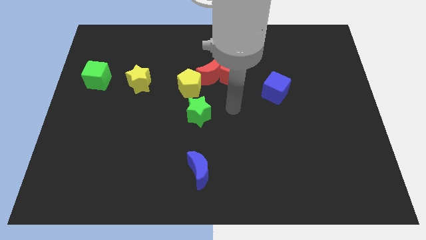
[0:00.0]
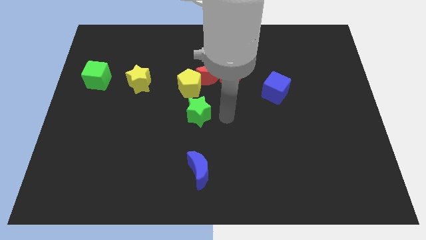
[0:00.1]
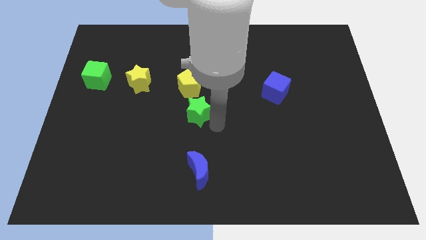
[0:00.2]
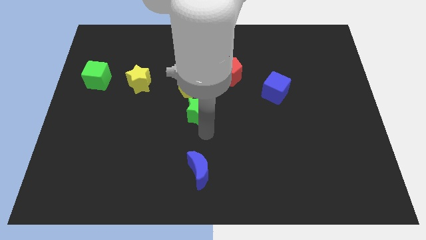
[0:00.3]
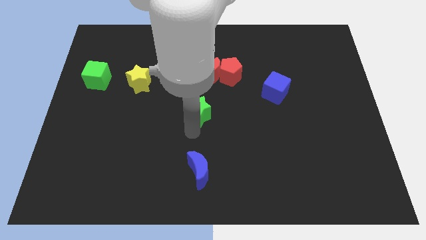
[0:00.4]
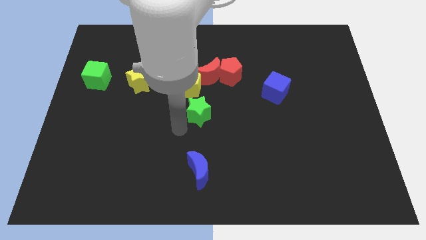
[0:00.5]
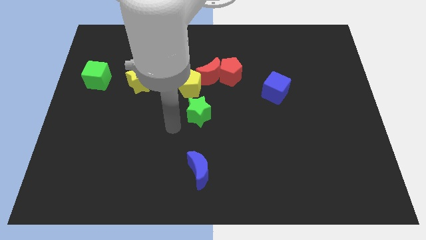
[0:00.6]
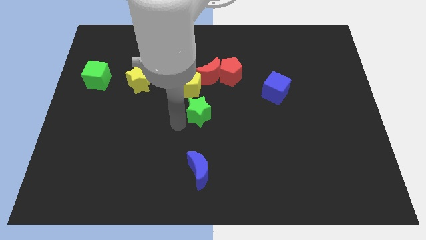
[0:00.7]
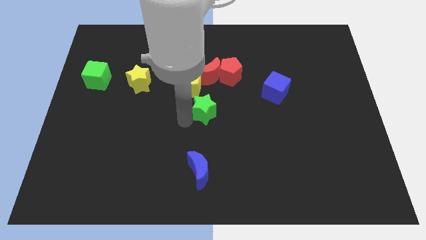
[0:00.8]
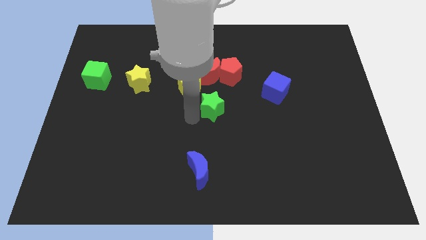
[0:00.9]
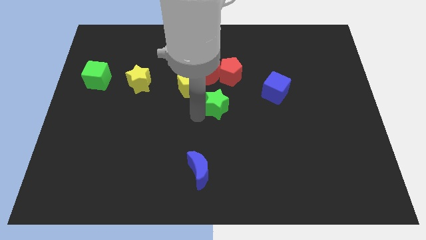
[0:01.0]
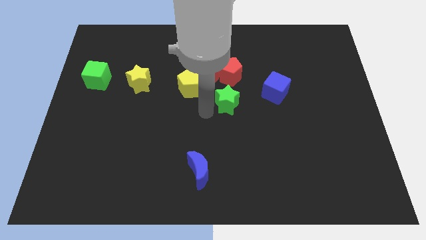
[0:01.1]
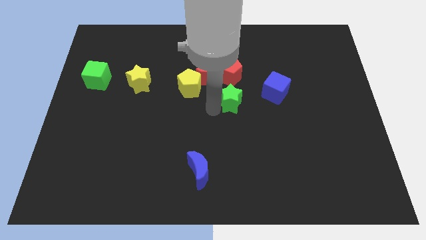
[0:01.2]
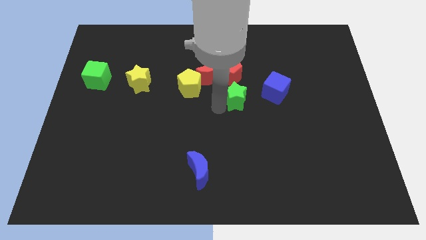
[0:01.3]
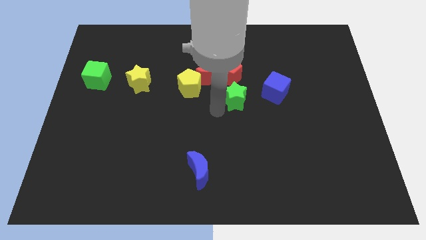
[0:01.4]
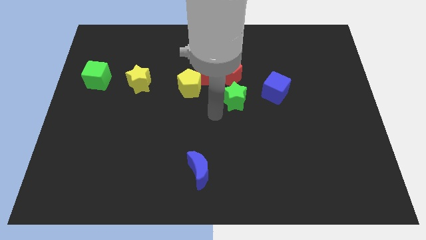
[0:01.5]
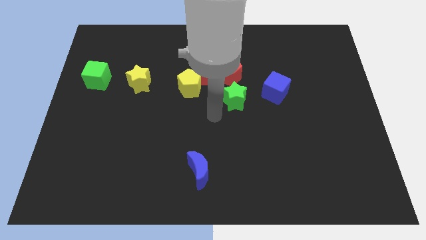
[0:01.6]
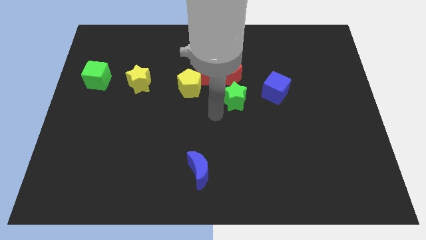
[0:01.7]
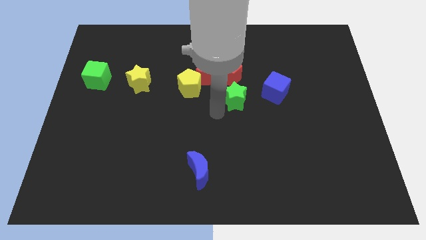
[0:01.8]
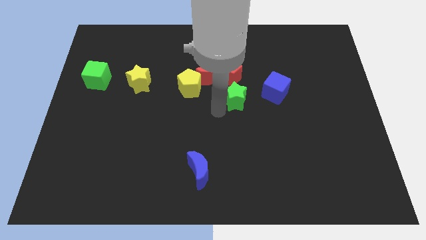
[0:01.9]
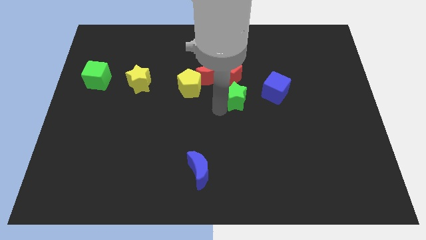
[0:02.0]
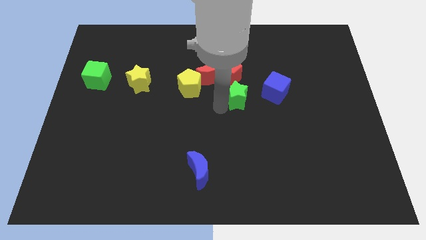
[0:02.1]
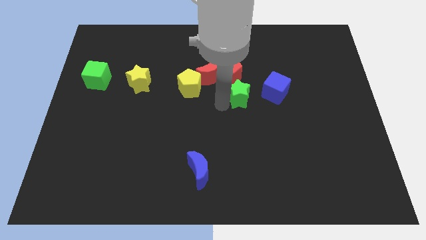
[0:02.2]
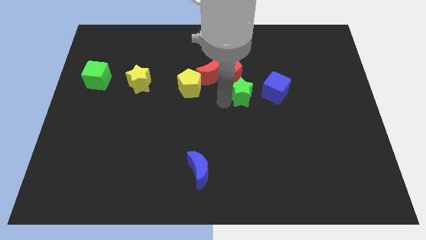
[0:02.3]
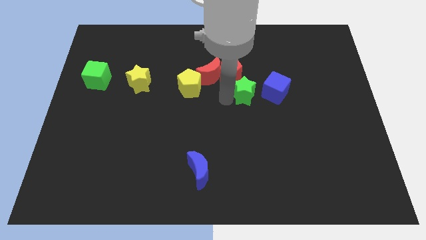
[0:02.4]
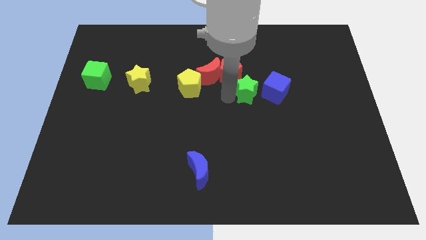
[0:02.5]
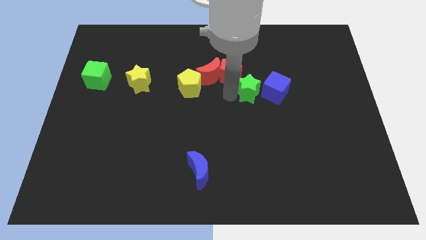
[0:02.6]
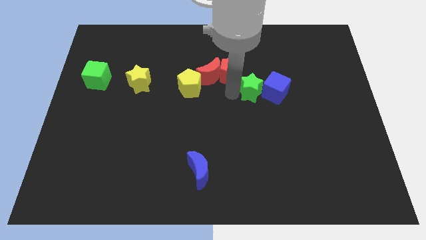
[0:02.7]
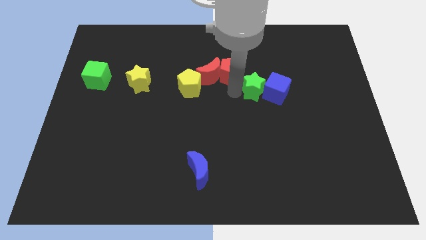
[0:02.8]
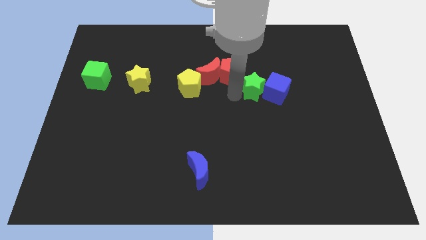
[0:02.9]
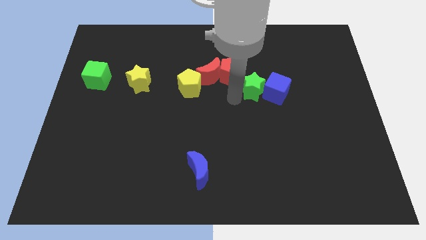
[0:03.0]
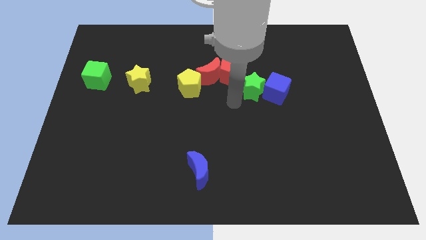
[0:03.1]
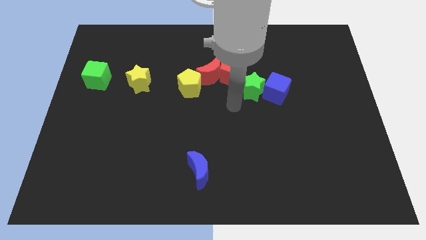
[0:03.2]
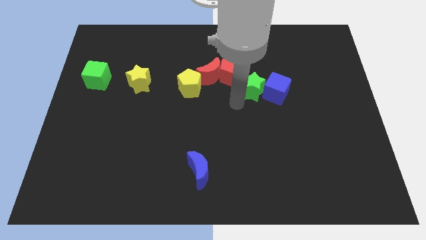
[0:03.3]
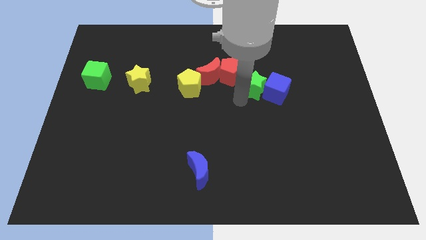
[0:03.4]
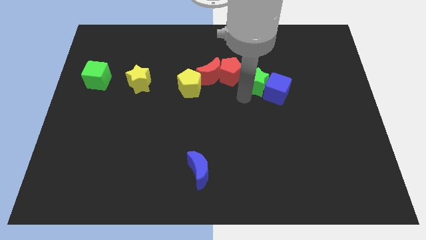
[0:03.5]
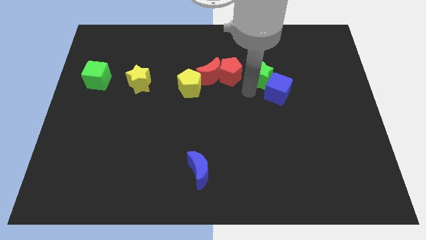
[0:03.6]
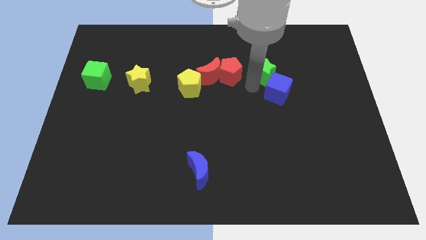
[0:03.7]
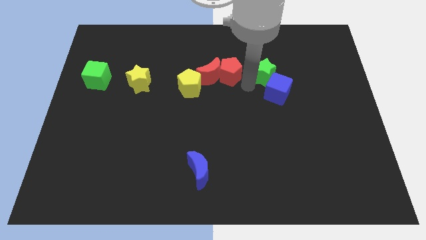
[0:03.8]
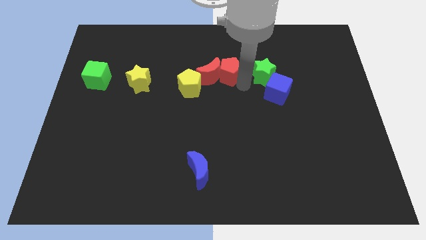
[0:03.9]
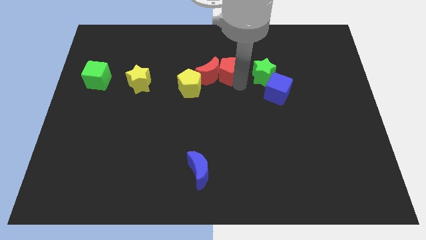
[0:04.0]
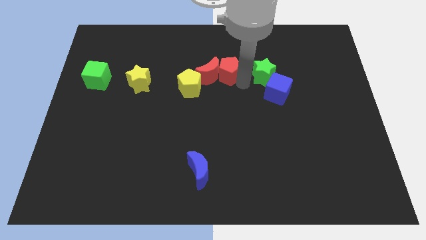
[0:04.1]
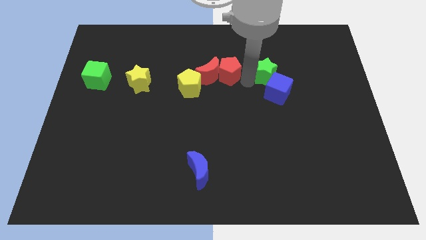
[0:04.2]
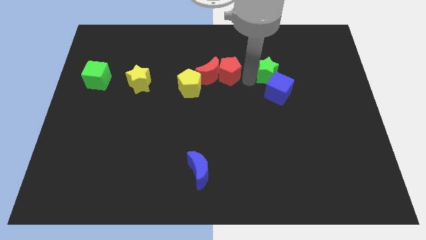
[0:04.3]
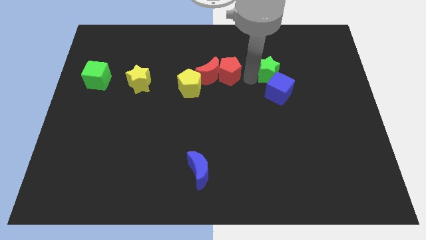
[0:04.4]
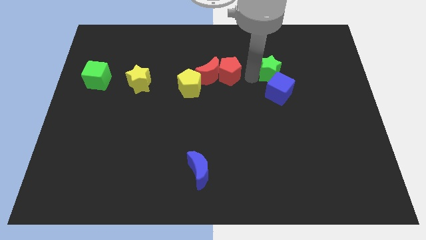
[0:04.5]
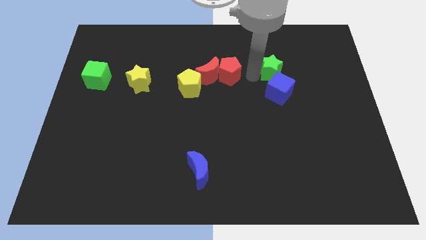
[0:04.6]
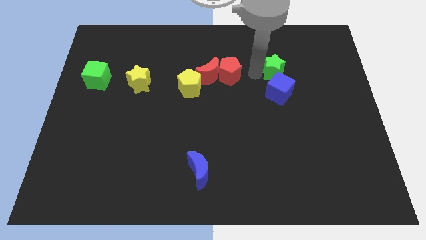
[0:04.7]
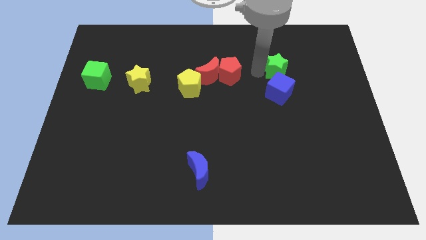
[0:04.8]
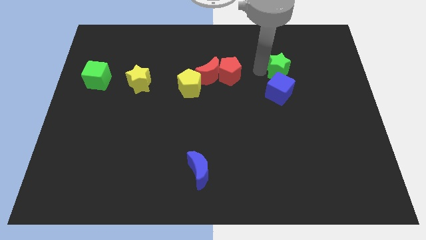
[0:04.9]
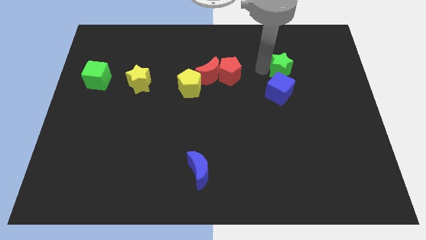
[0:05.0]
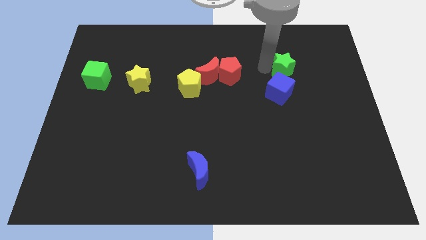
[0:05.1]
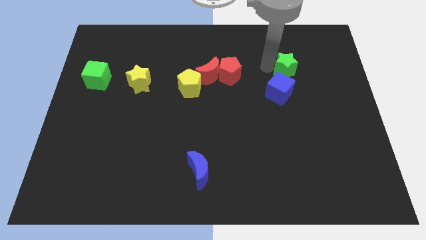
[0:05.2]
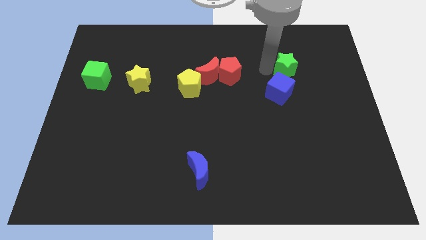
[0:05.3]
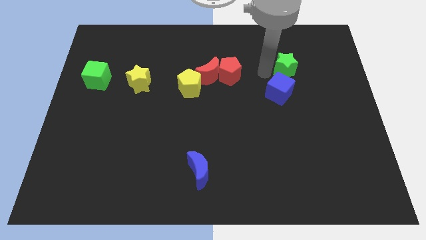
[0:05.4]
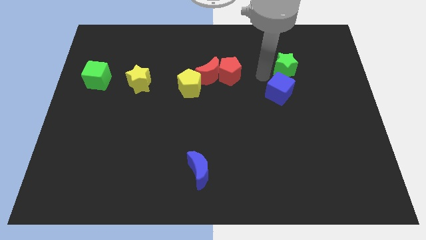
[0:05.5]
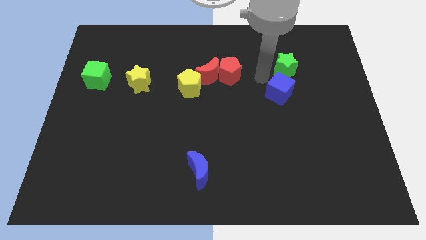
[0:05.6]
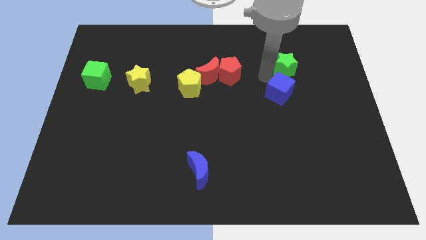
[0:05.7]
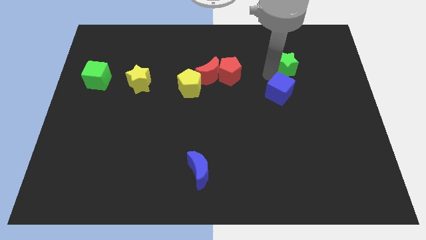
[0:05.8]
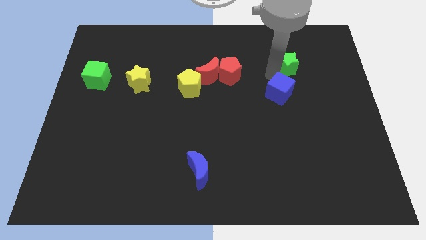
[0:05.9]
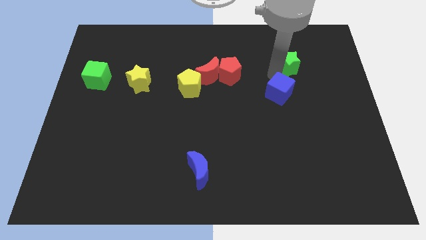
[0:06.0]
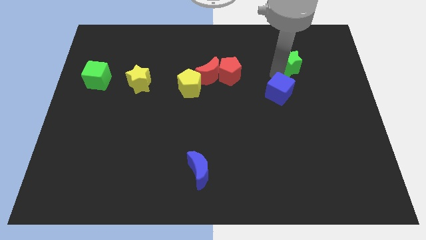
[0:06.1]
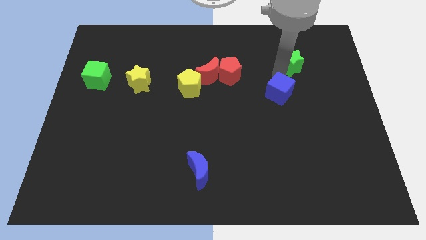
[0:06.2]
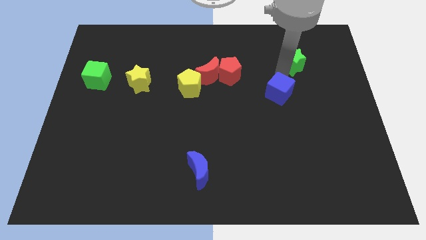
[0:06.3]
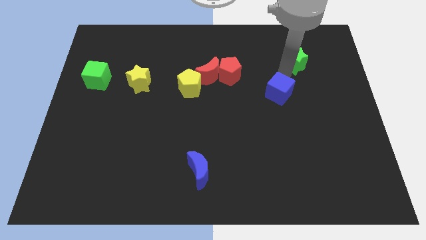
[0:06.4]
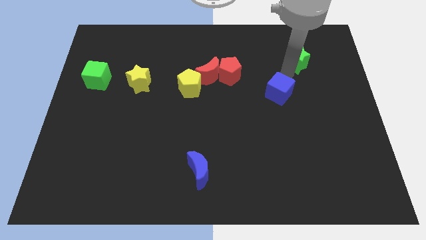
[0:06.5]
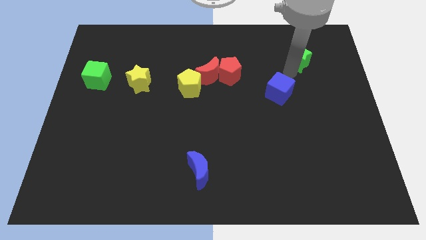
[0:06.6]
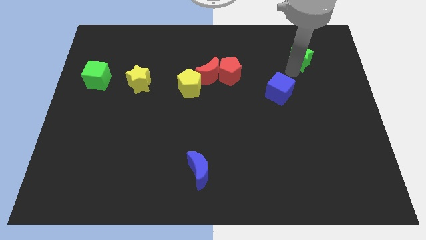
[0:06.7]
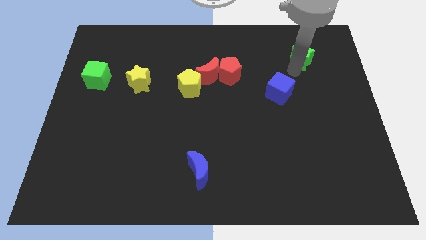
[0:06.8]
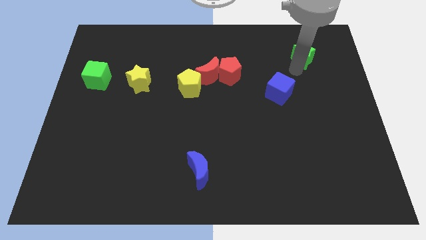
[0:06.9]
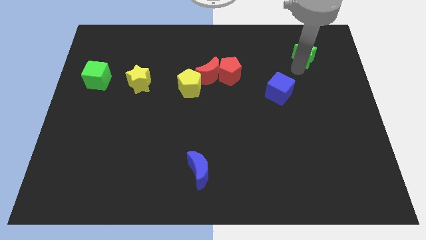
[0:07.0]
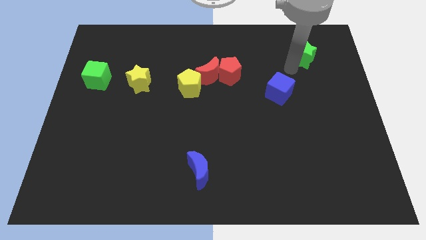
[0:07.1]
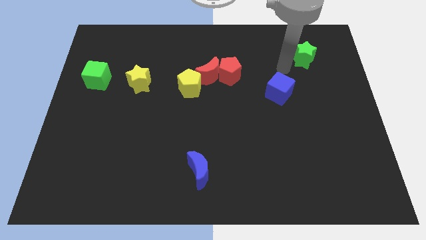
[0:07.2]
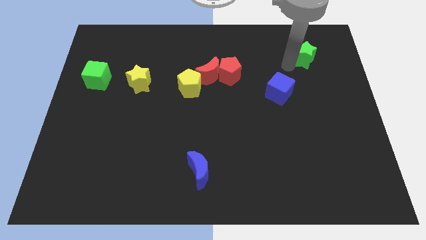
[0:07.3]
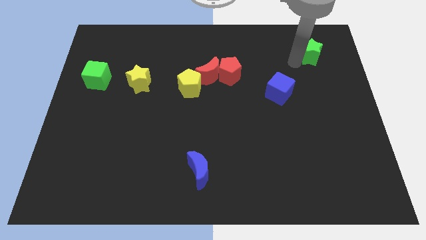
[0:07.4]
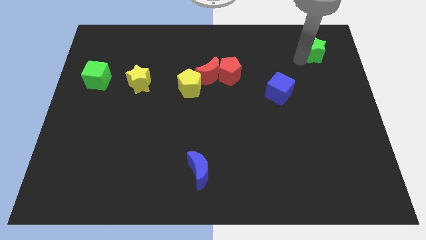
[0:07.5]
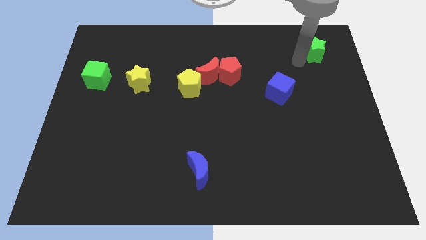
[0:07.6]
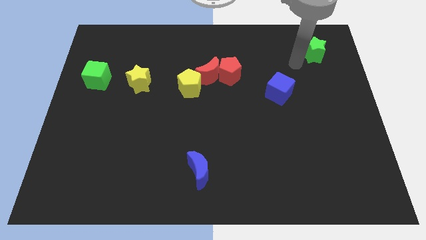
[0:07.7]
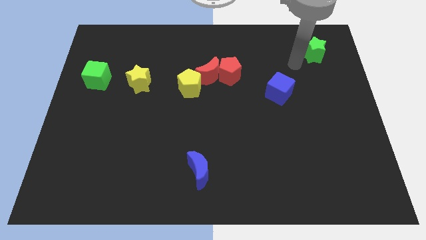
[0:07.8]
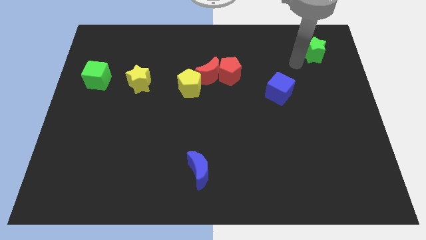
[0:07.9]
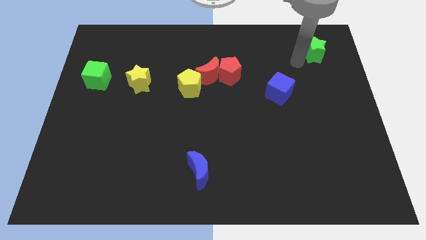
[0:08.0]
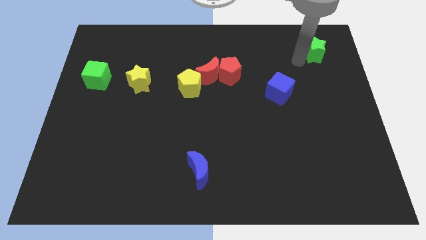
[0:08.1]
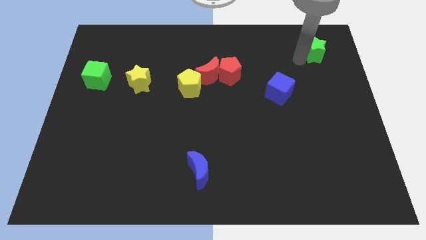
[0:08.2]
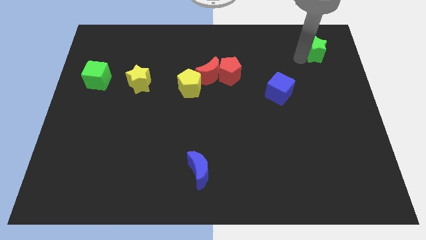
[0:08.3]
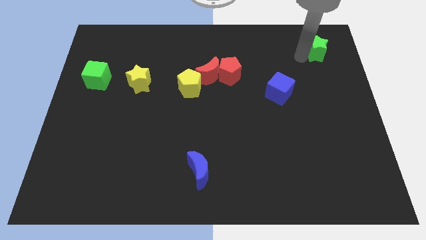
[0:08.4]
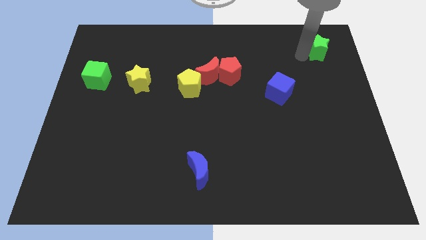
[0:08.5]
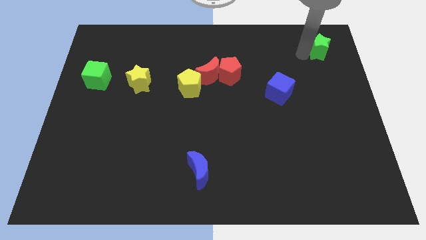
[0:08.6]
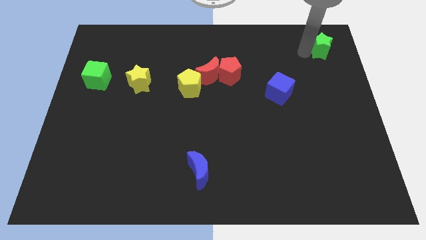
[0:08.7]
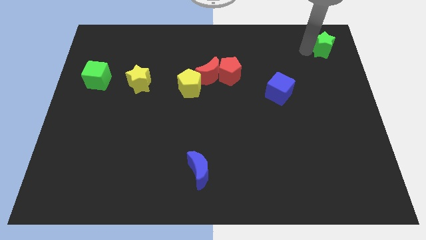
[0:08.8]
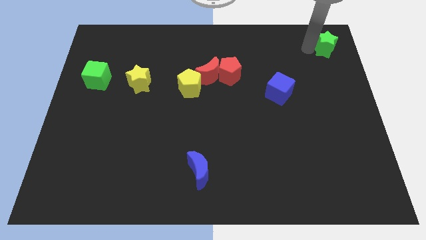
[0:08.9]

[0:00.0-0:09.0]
push the green star to the top right
